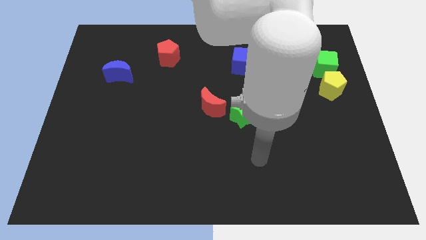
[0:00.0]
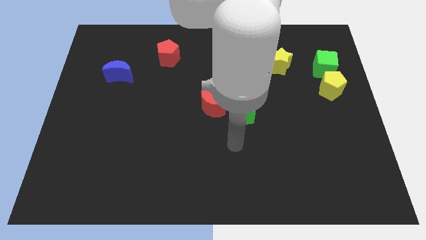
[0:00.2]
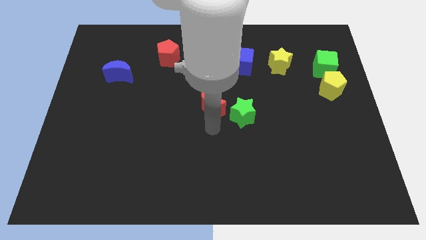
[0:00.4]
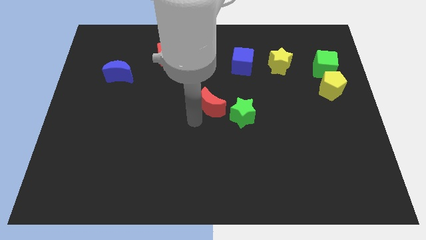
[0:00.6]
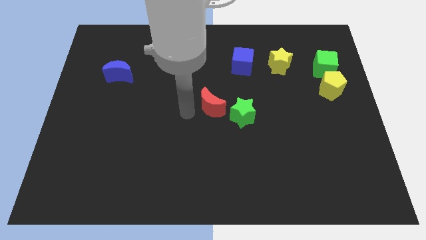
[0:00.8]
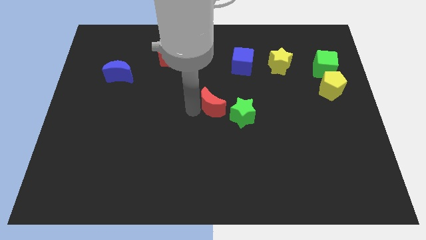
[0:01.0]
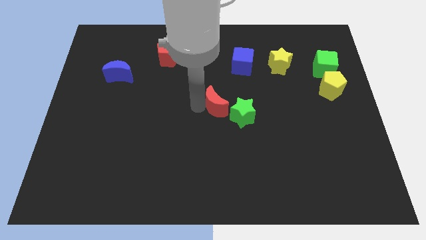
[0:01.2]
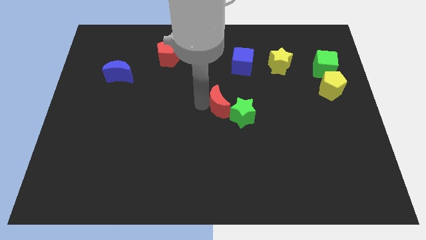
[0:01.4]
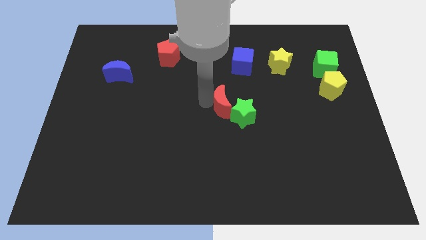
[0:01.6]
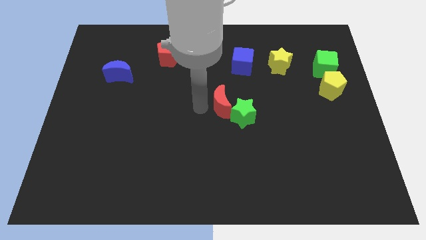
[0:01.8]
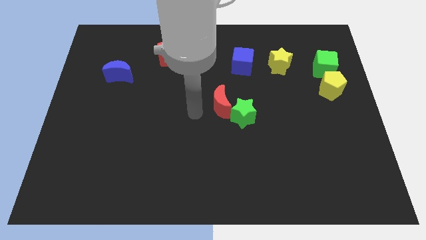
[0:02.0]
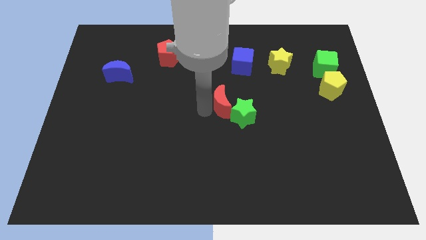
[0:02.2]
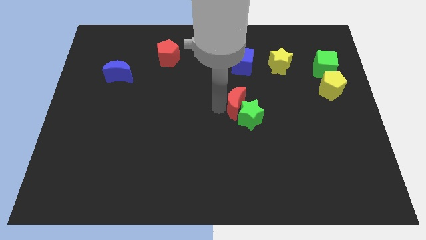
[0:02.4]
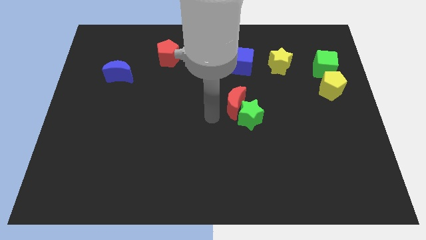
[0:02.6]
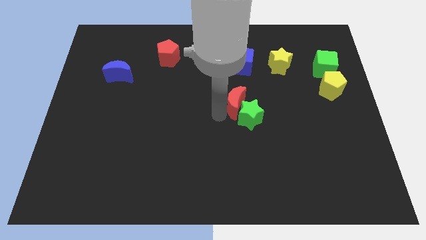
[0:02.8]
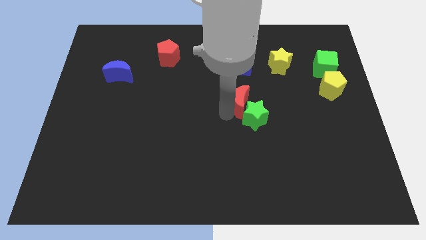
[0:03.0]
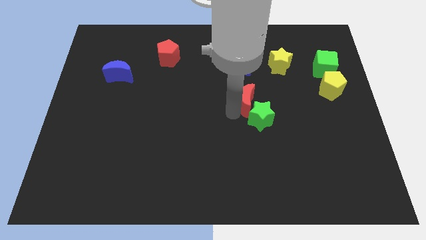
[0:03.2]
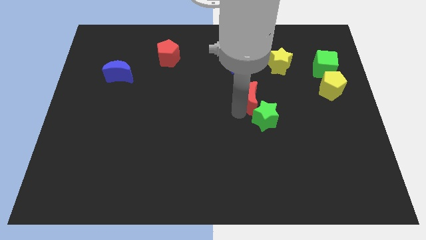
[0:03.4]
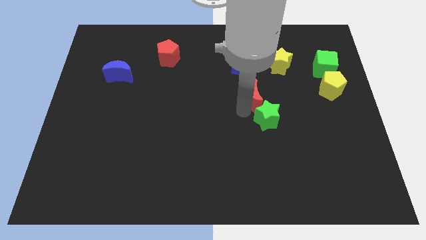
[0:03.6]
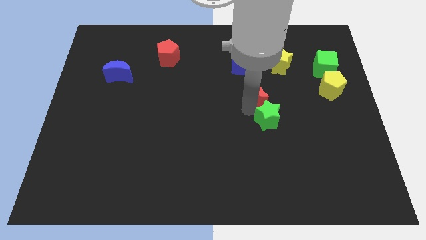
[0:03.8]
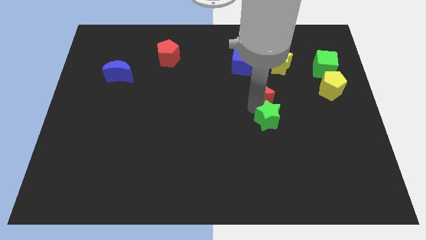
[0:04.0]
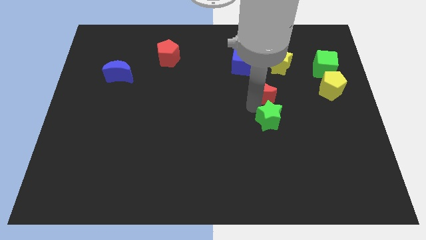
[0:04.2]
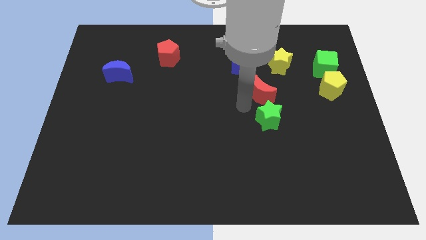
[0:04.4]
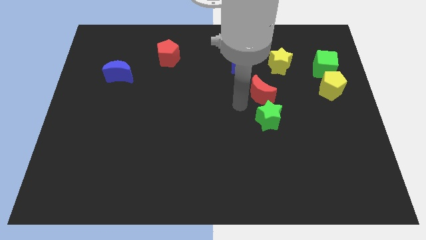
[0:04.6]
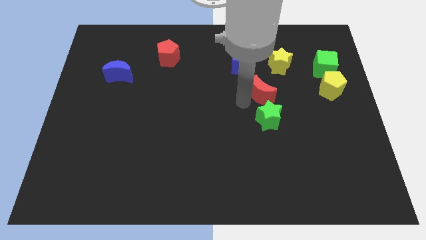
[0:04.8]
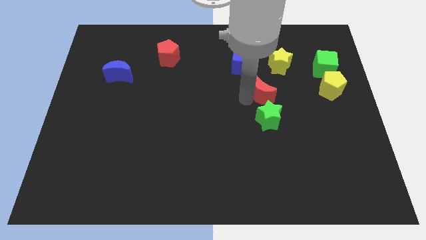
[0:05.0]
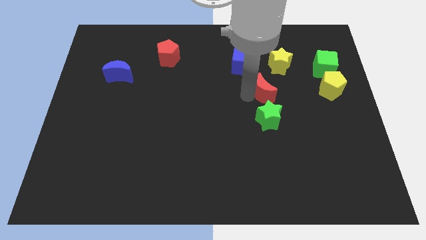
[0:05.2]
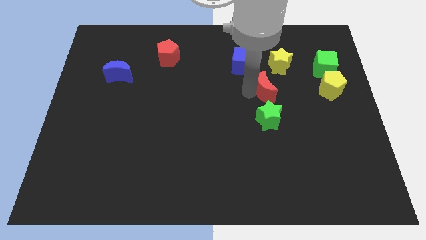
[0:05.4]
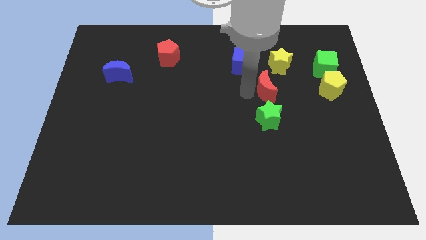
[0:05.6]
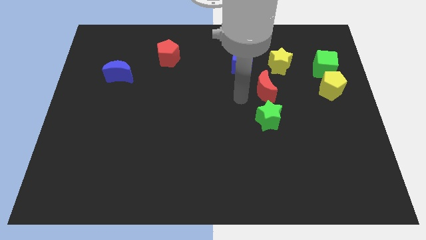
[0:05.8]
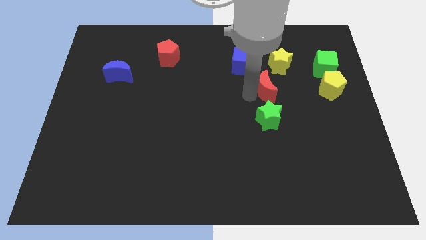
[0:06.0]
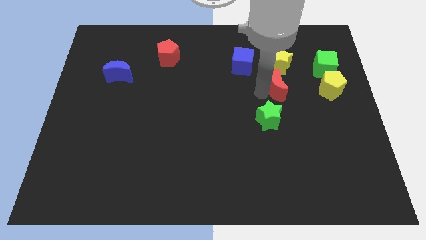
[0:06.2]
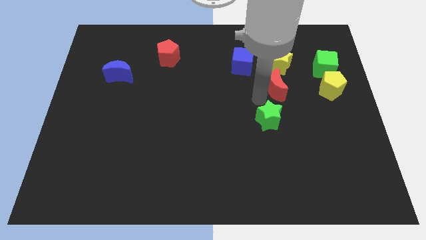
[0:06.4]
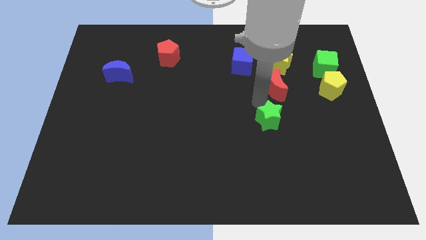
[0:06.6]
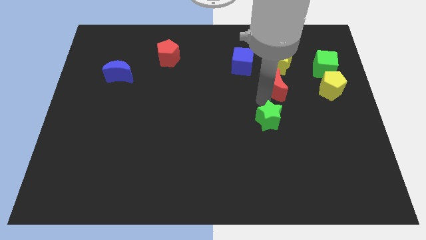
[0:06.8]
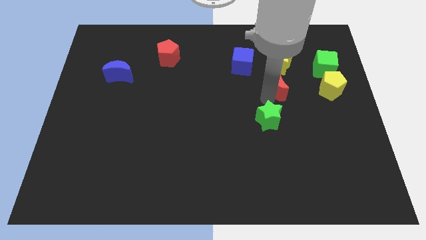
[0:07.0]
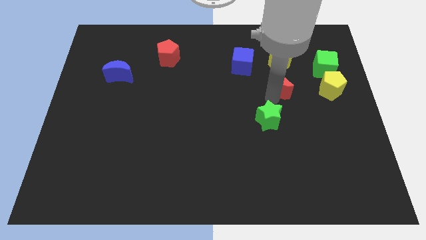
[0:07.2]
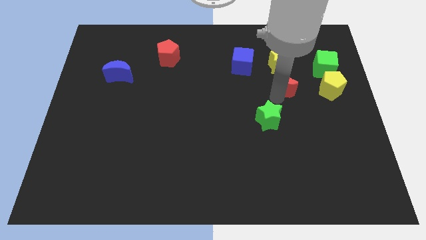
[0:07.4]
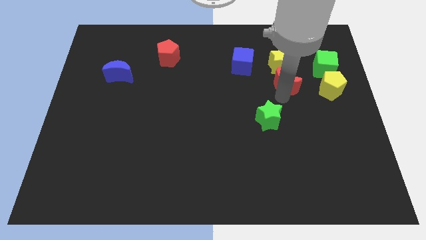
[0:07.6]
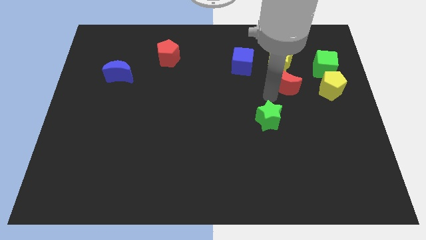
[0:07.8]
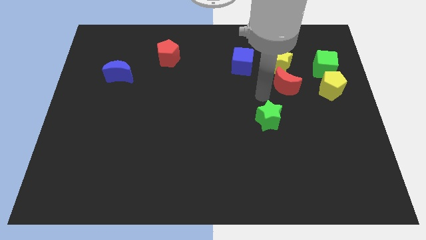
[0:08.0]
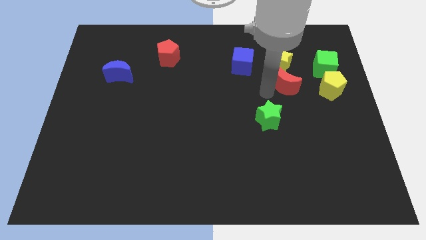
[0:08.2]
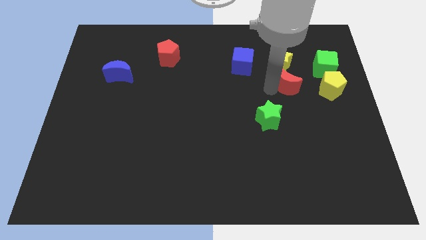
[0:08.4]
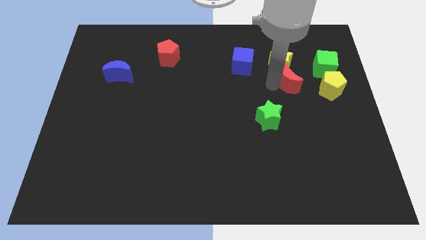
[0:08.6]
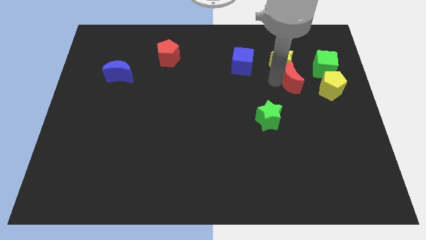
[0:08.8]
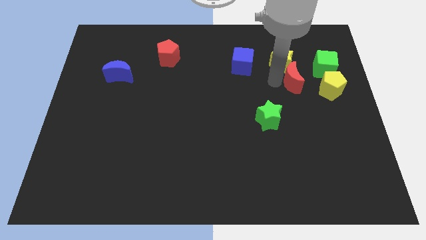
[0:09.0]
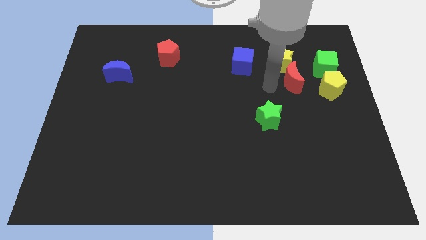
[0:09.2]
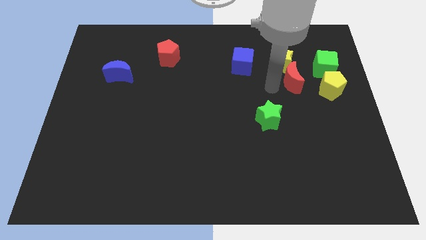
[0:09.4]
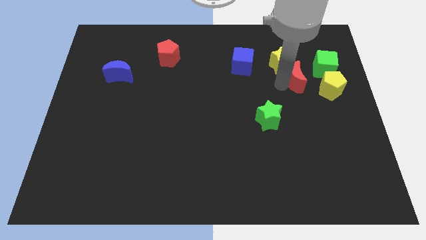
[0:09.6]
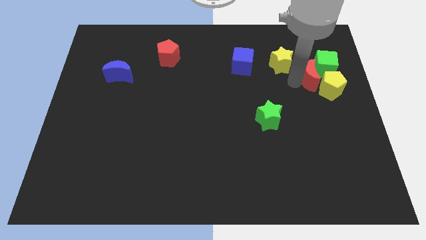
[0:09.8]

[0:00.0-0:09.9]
move the red moon close to the green cube

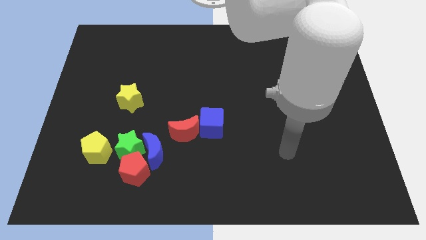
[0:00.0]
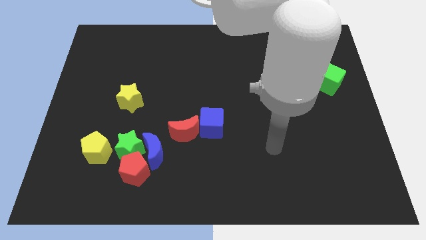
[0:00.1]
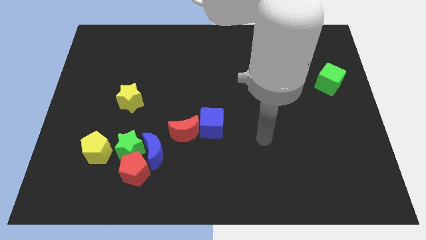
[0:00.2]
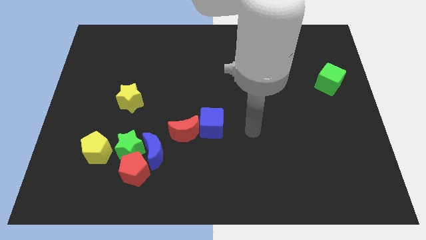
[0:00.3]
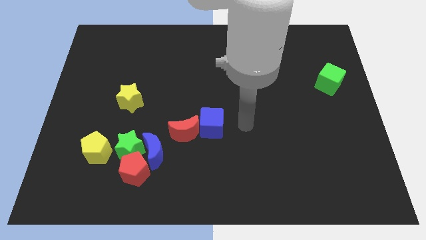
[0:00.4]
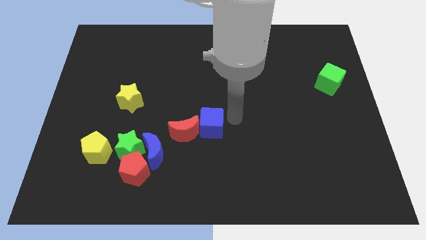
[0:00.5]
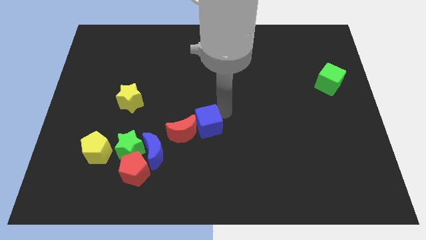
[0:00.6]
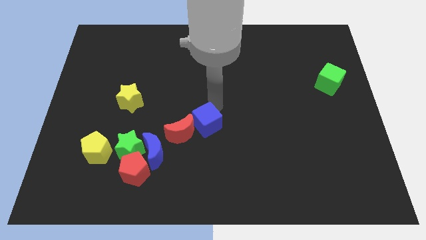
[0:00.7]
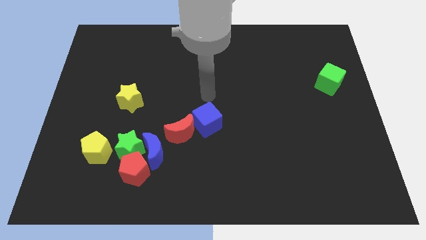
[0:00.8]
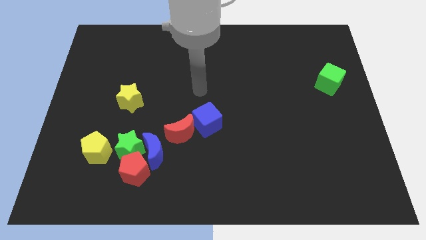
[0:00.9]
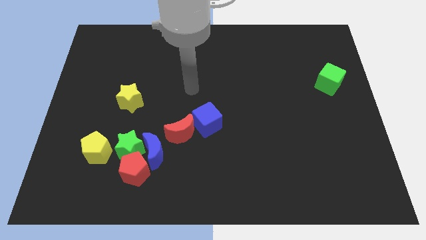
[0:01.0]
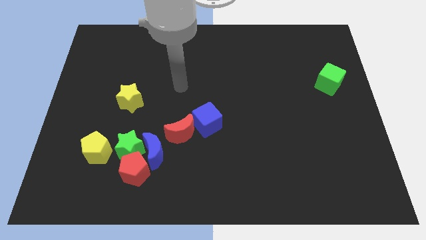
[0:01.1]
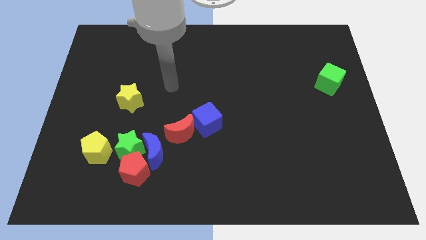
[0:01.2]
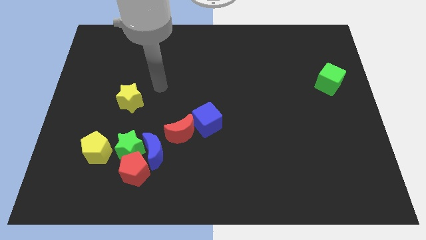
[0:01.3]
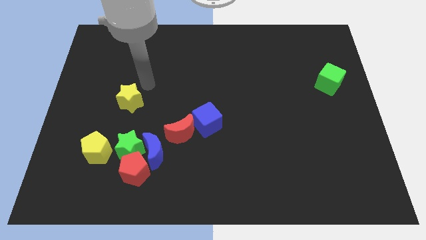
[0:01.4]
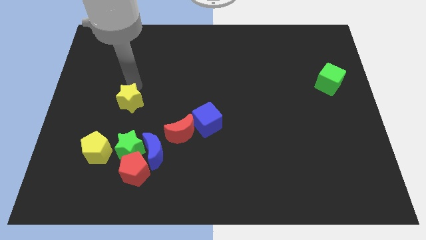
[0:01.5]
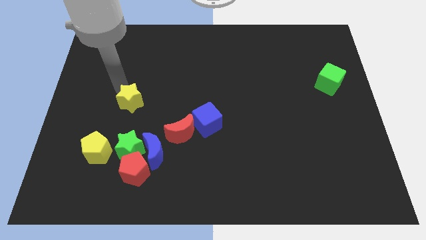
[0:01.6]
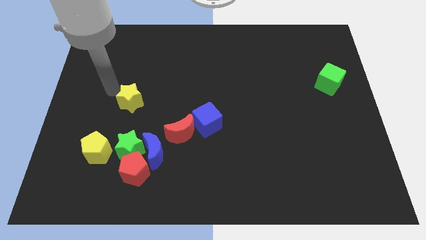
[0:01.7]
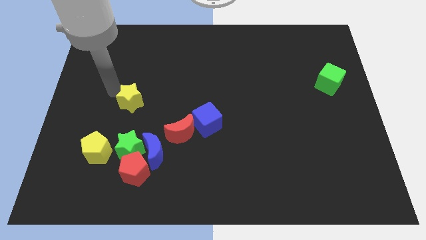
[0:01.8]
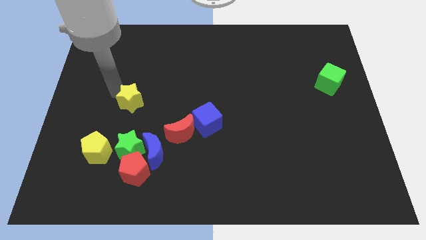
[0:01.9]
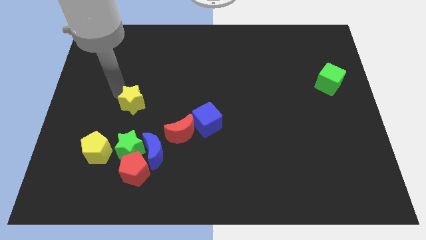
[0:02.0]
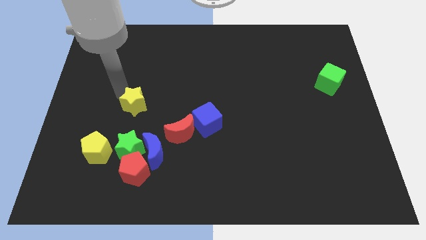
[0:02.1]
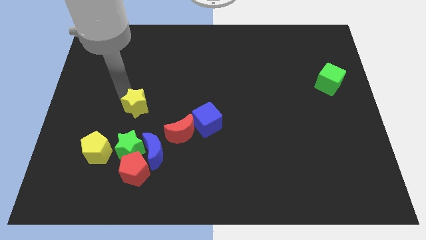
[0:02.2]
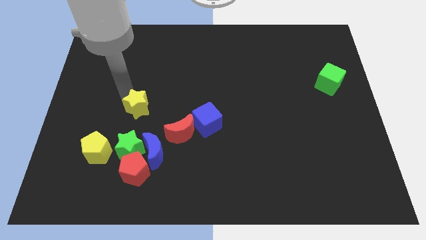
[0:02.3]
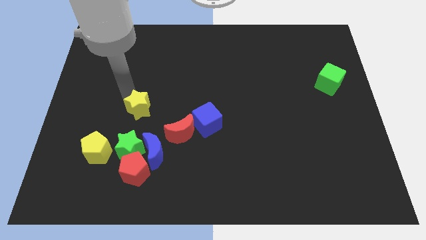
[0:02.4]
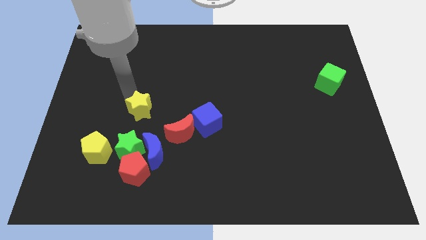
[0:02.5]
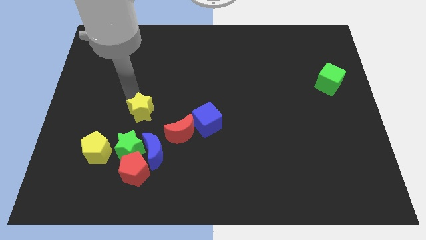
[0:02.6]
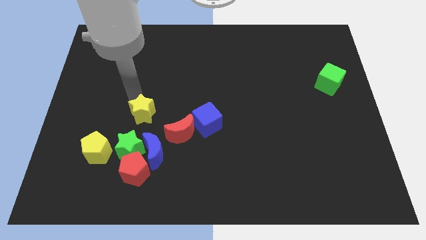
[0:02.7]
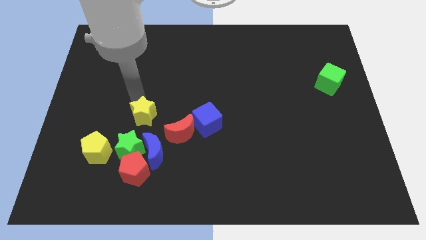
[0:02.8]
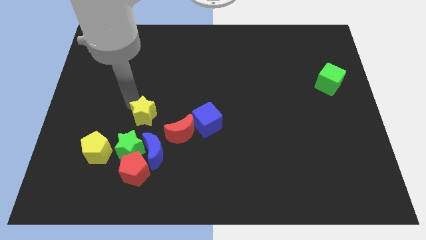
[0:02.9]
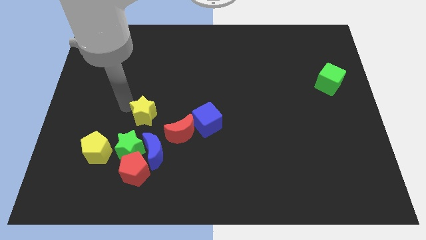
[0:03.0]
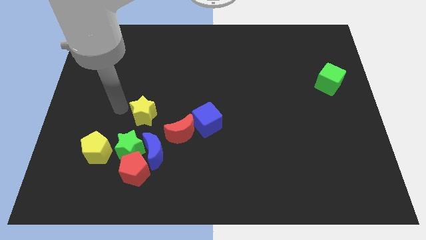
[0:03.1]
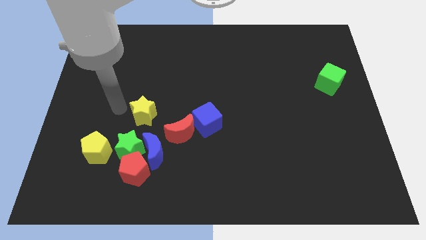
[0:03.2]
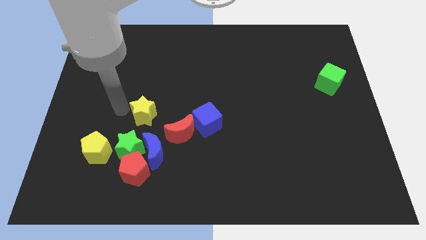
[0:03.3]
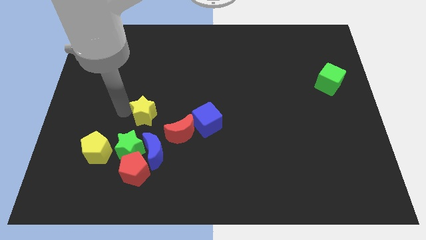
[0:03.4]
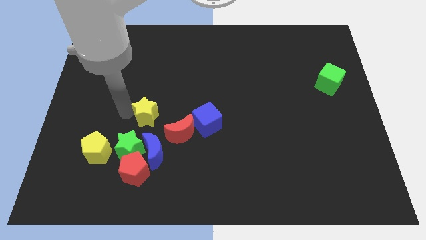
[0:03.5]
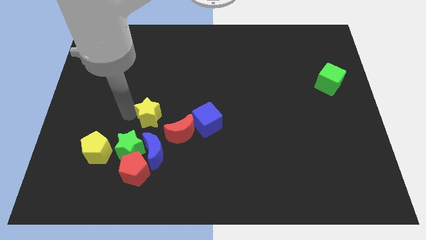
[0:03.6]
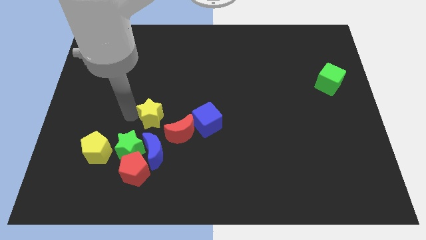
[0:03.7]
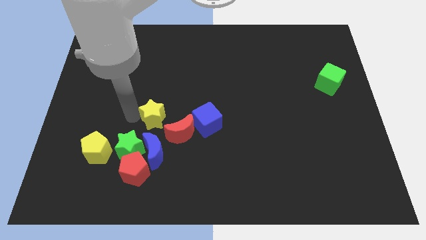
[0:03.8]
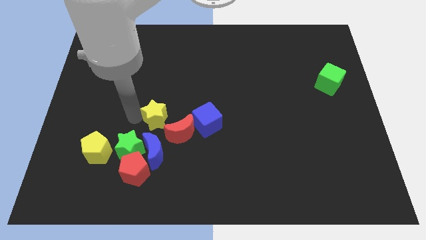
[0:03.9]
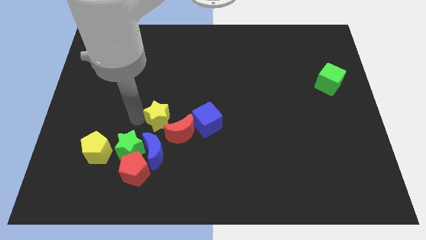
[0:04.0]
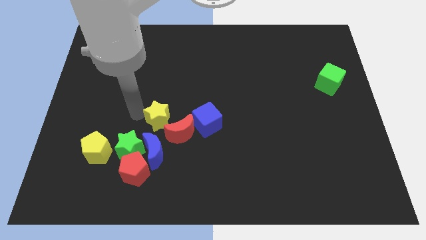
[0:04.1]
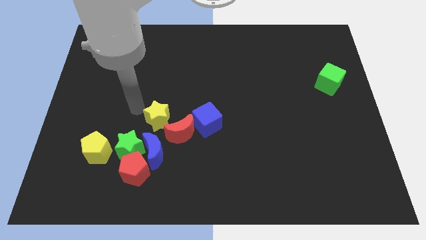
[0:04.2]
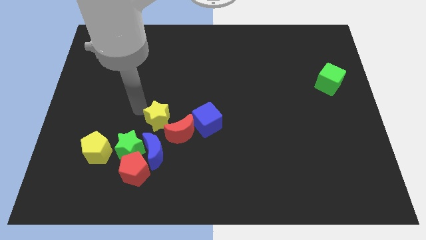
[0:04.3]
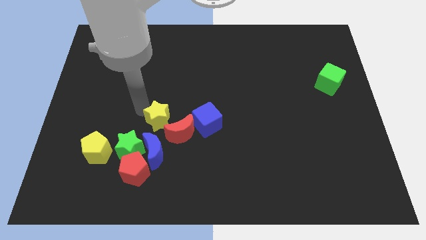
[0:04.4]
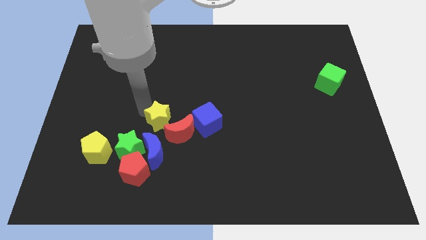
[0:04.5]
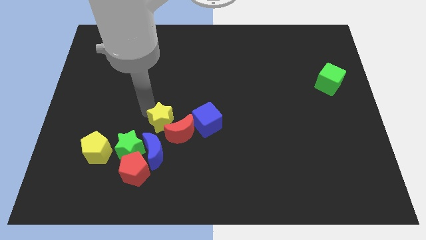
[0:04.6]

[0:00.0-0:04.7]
push the yellow star towards the red moon
